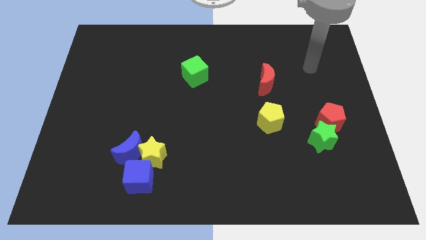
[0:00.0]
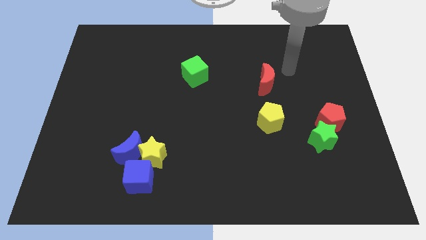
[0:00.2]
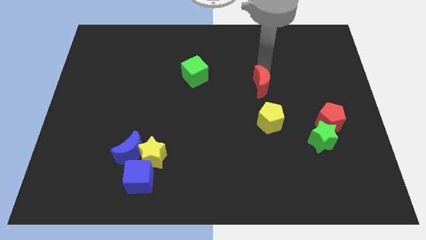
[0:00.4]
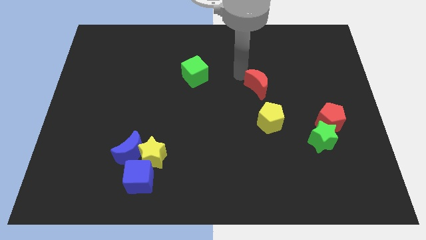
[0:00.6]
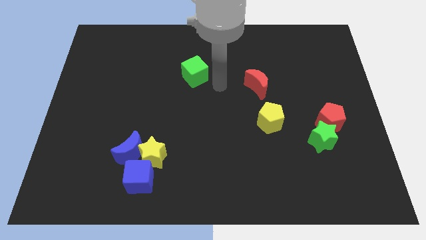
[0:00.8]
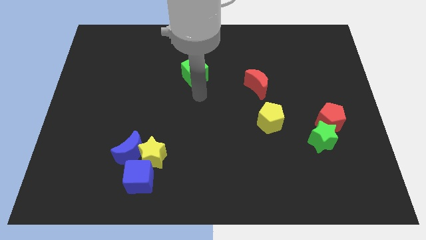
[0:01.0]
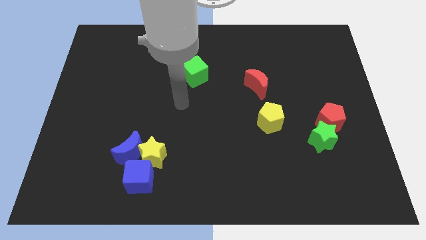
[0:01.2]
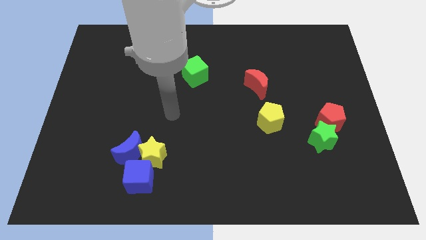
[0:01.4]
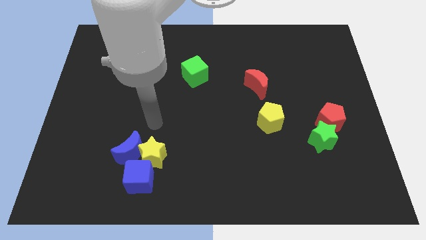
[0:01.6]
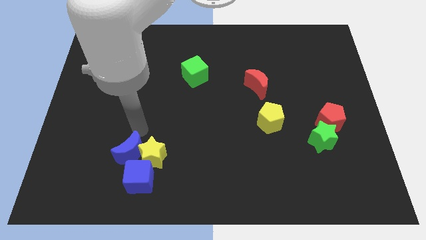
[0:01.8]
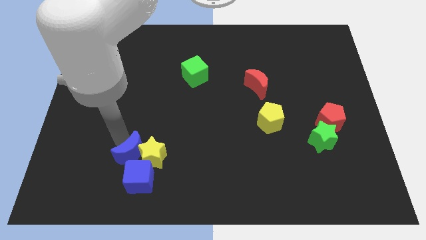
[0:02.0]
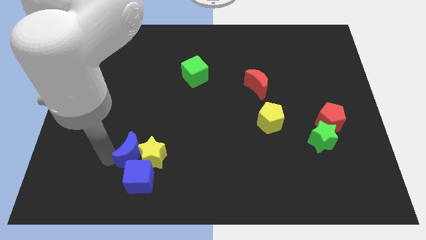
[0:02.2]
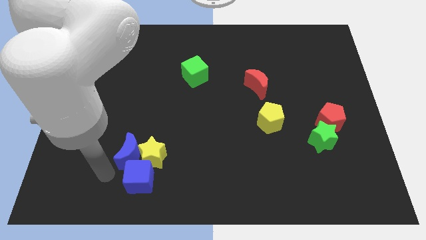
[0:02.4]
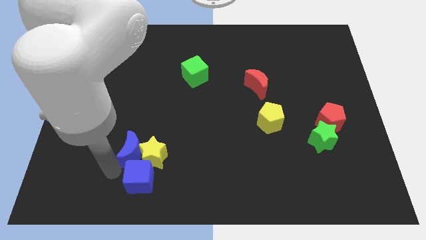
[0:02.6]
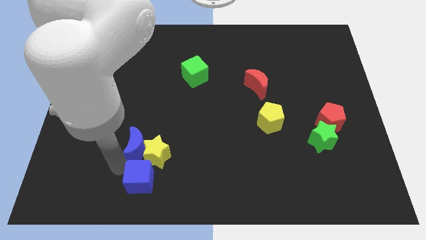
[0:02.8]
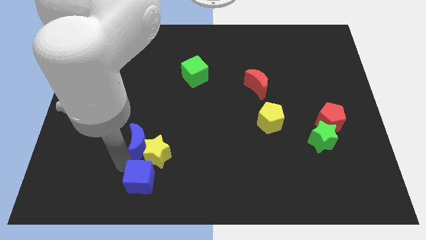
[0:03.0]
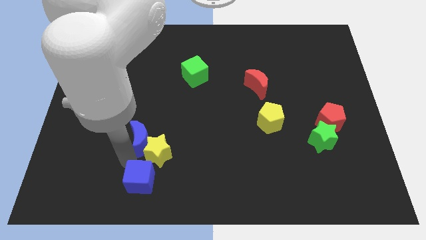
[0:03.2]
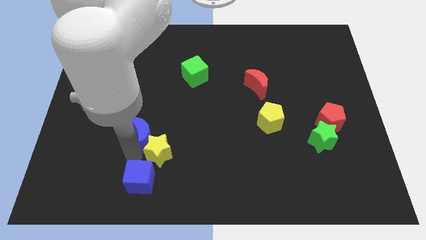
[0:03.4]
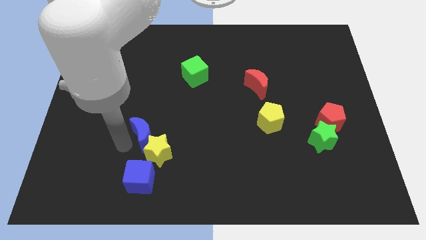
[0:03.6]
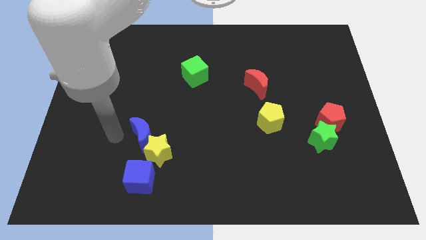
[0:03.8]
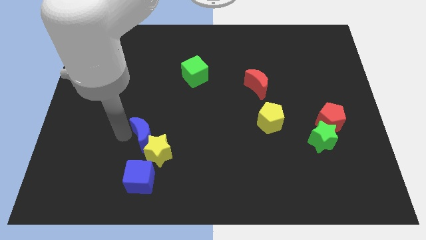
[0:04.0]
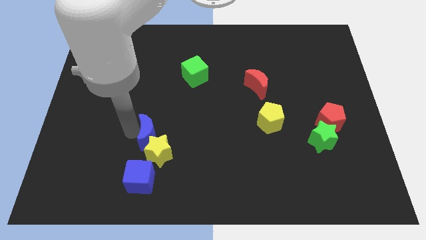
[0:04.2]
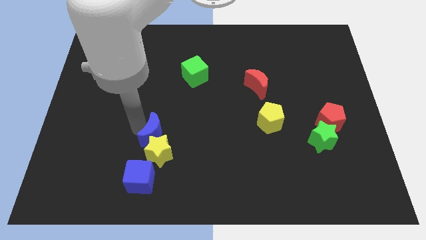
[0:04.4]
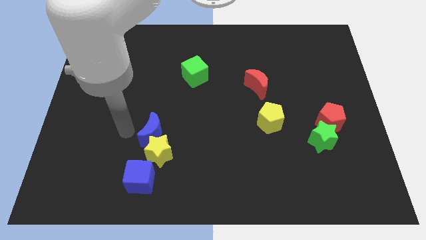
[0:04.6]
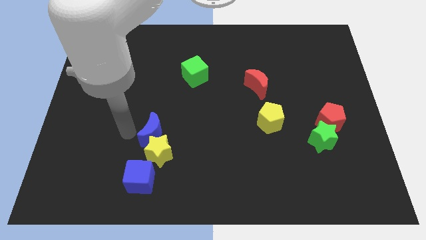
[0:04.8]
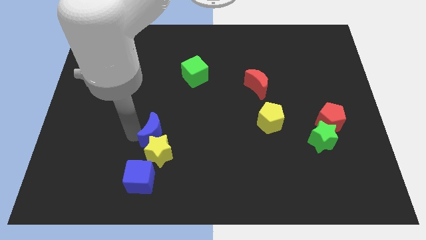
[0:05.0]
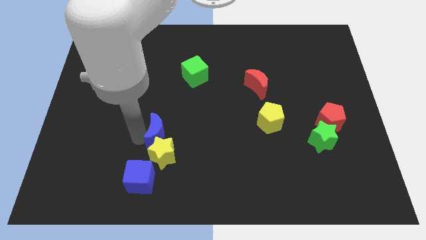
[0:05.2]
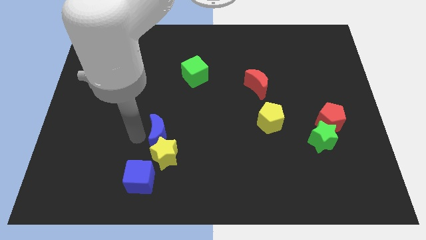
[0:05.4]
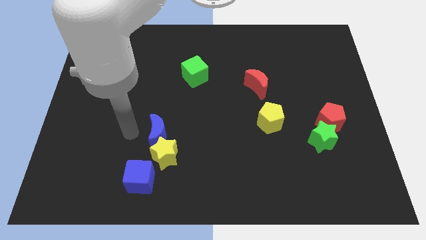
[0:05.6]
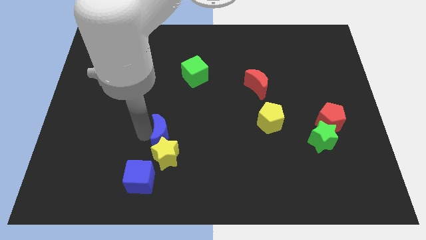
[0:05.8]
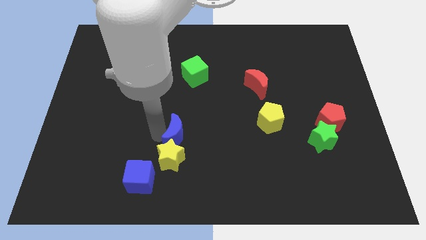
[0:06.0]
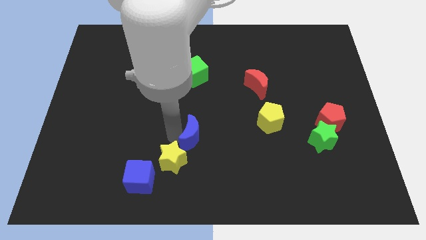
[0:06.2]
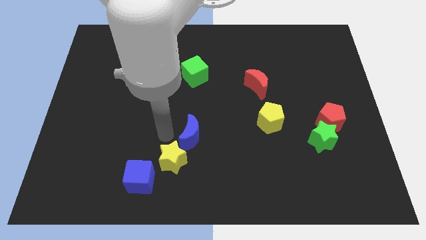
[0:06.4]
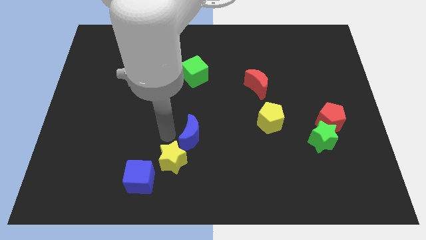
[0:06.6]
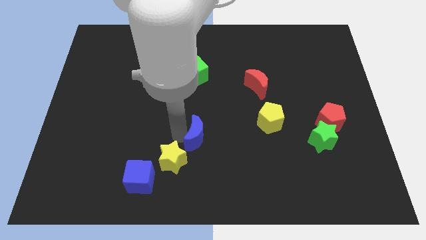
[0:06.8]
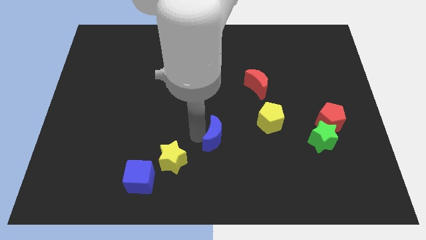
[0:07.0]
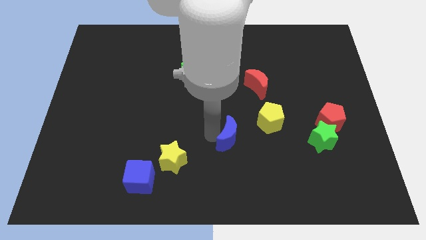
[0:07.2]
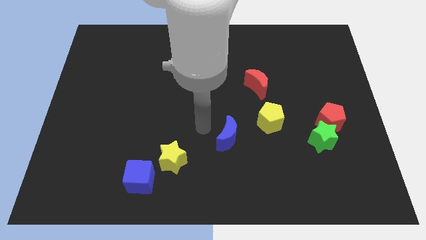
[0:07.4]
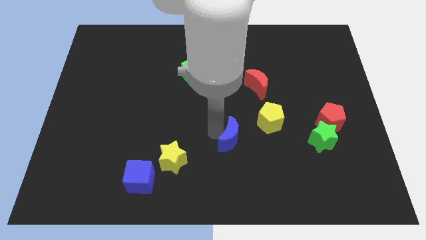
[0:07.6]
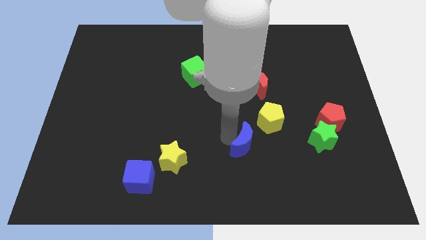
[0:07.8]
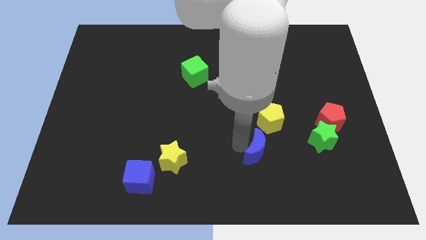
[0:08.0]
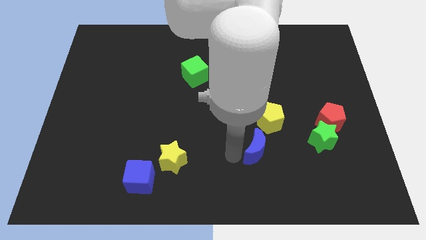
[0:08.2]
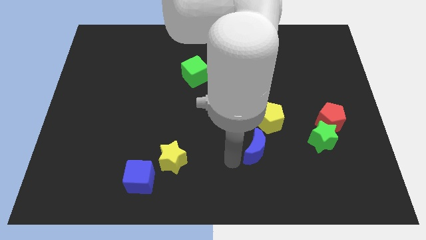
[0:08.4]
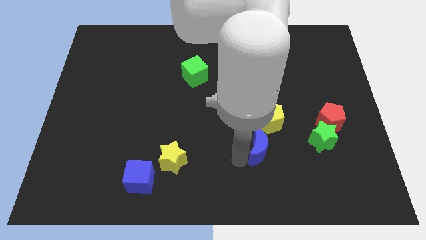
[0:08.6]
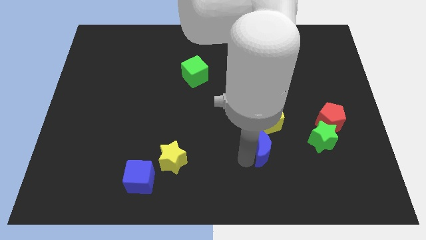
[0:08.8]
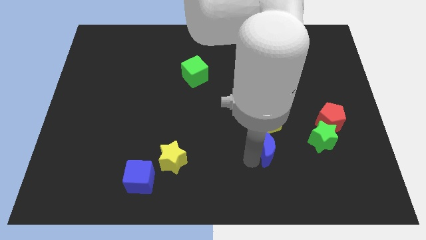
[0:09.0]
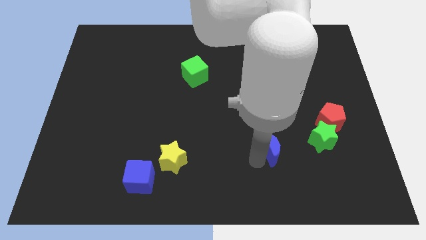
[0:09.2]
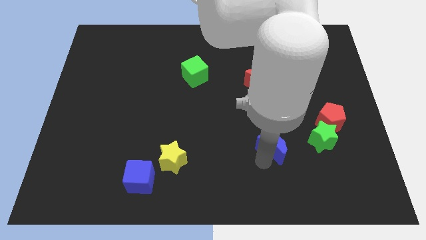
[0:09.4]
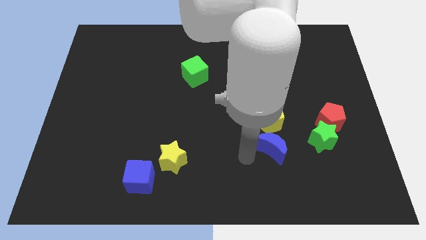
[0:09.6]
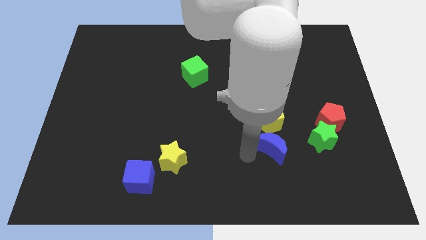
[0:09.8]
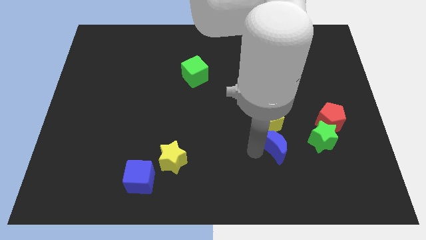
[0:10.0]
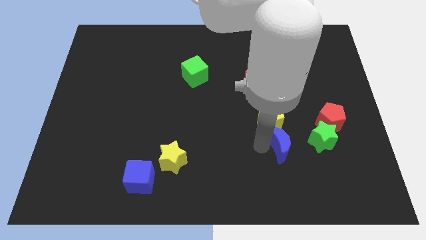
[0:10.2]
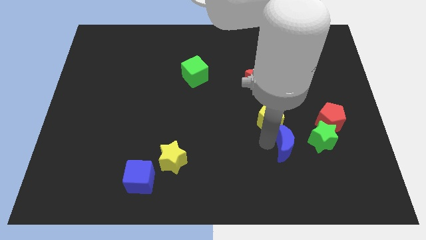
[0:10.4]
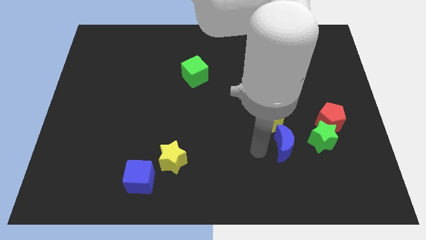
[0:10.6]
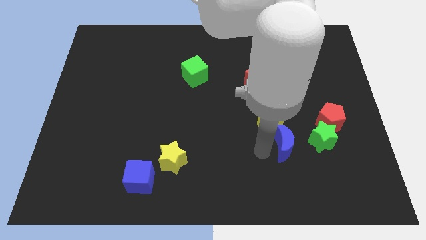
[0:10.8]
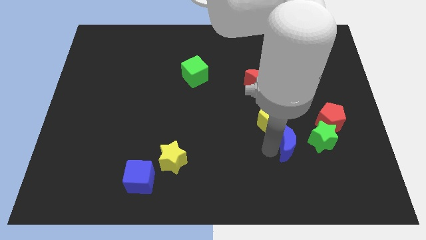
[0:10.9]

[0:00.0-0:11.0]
put the blue moon to the bottom left side of the red pentagon
